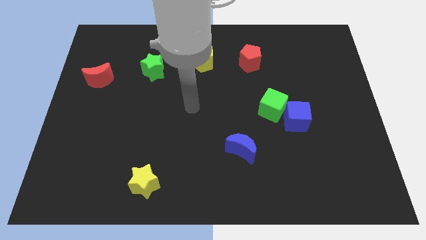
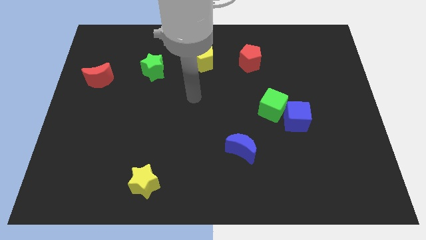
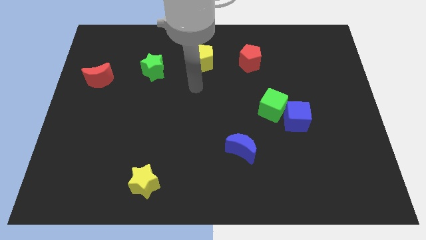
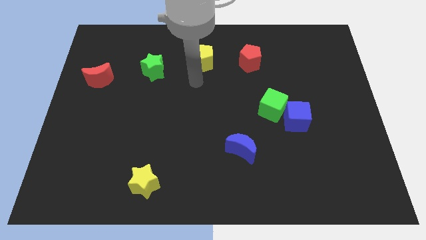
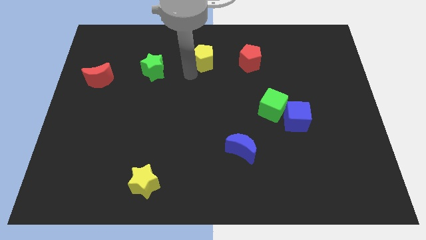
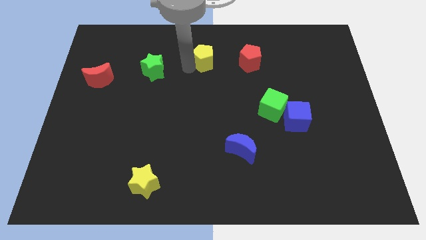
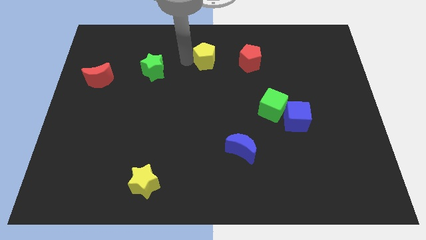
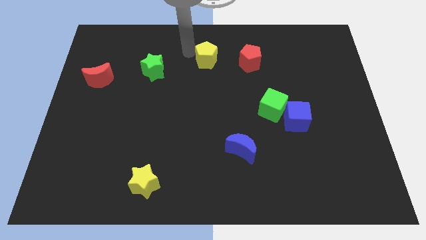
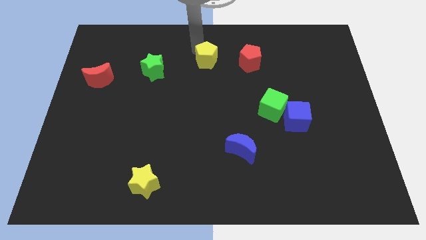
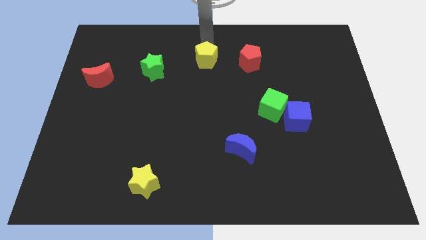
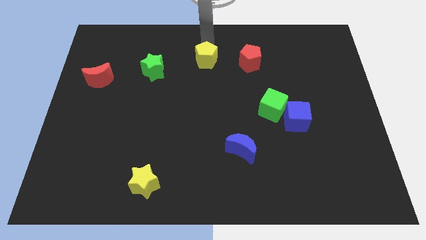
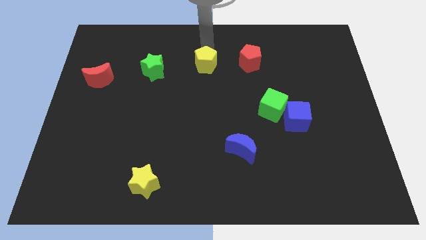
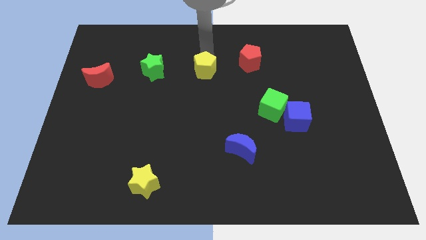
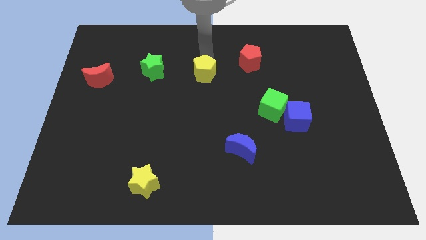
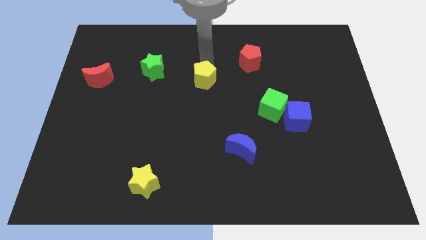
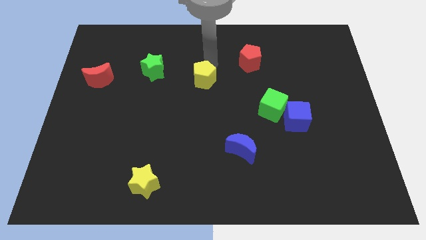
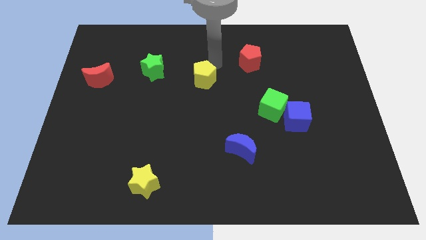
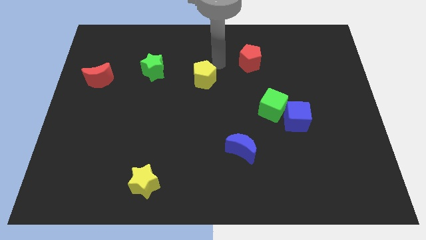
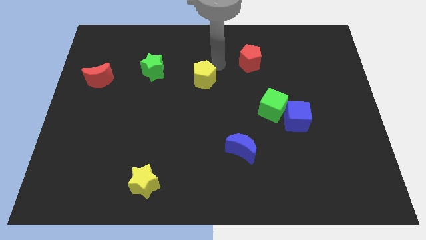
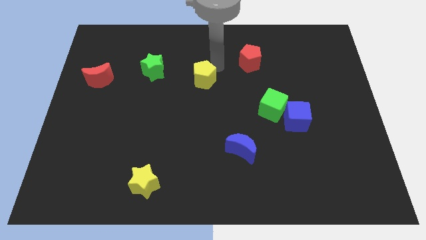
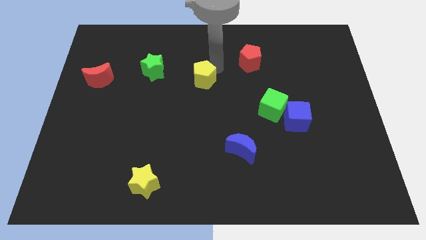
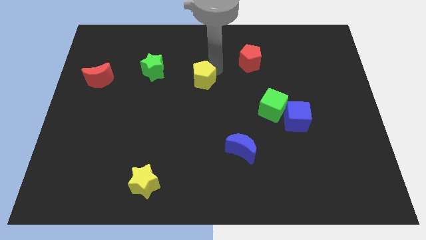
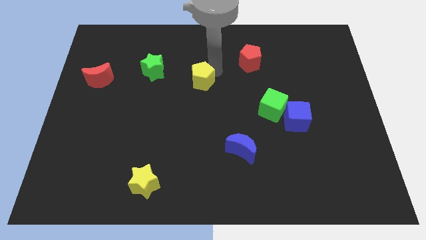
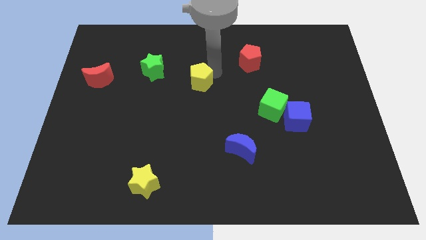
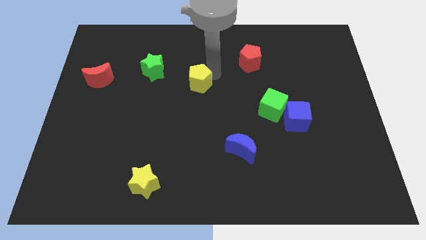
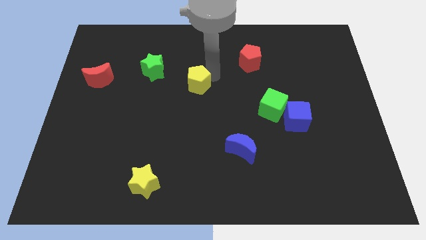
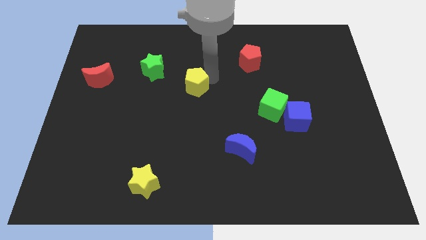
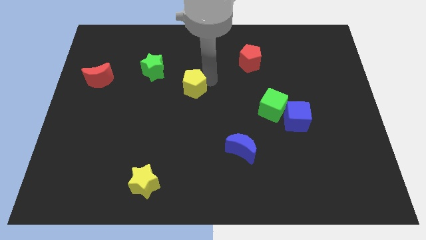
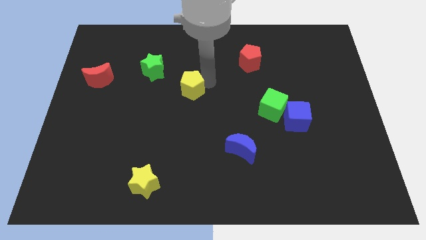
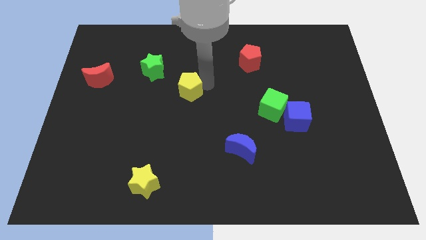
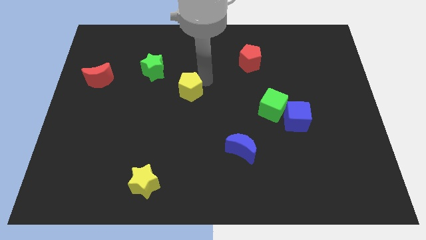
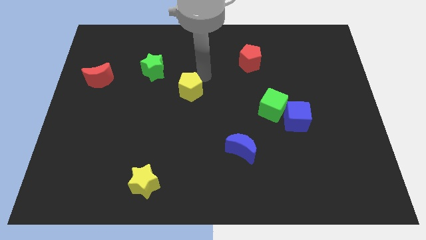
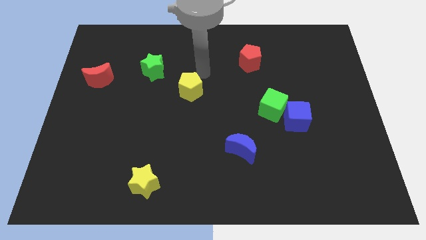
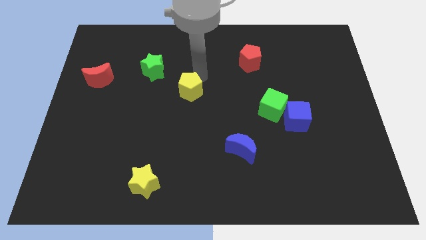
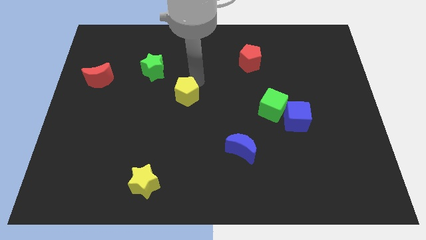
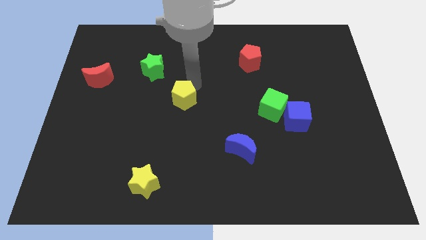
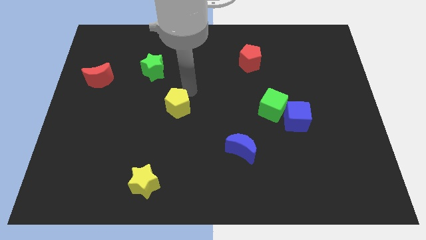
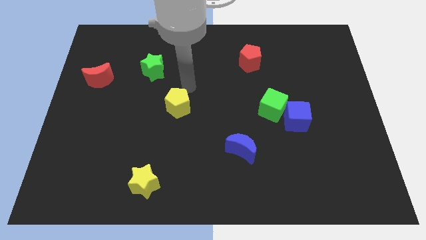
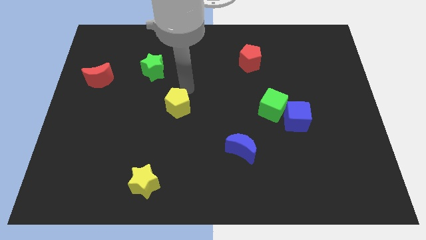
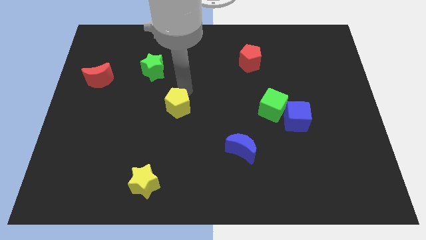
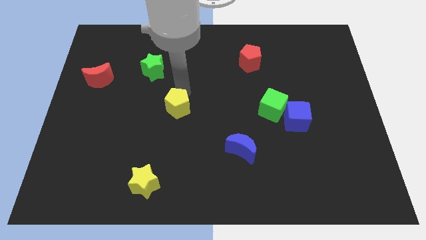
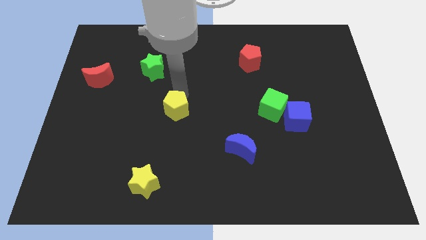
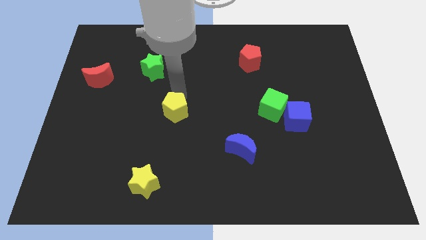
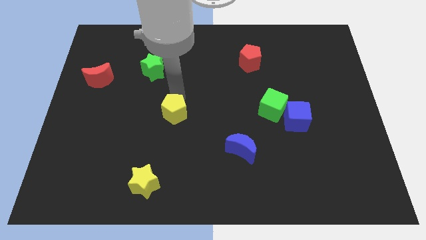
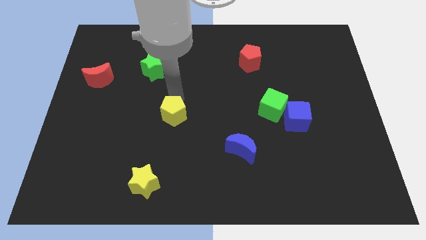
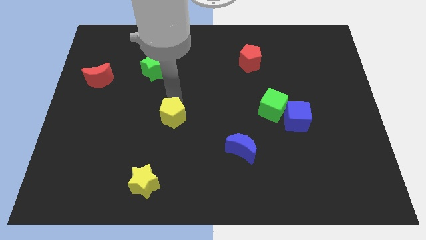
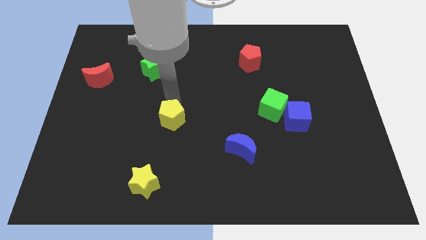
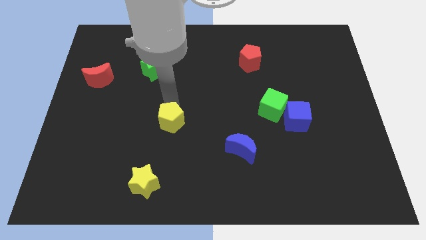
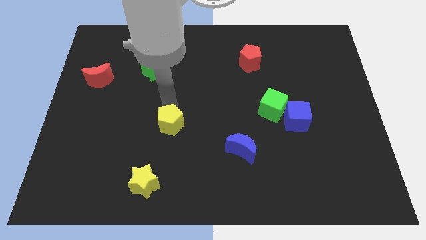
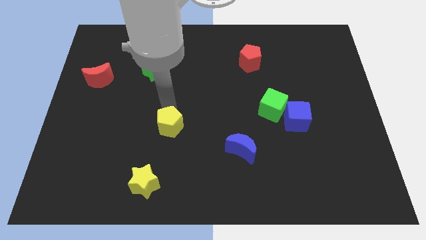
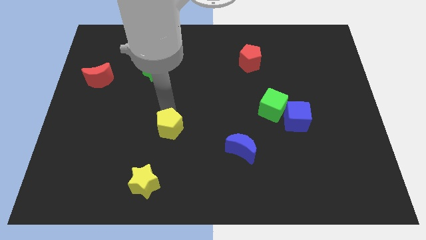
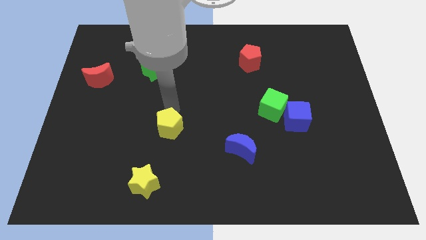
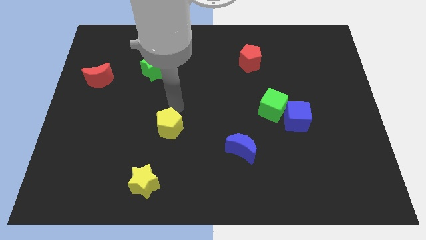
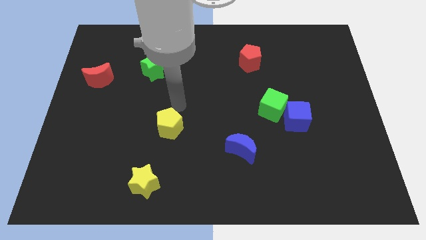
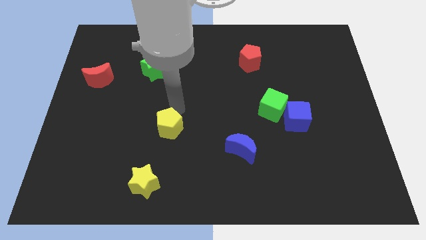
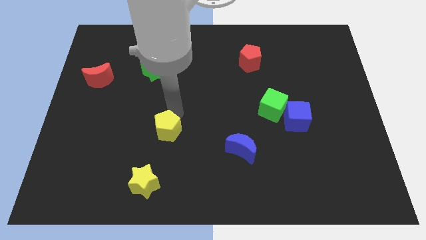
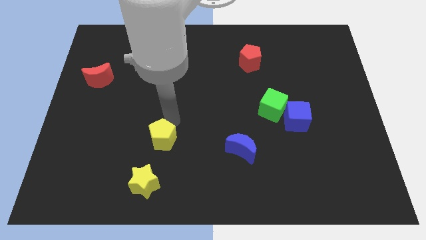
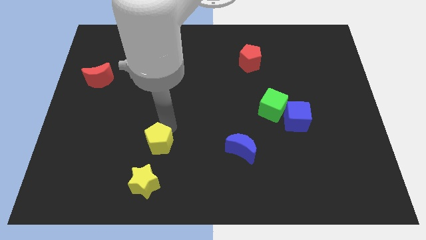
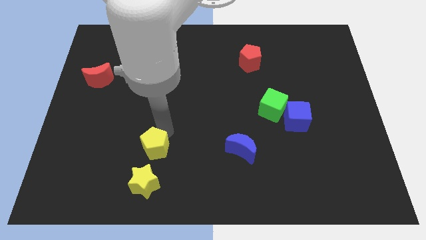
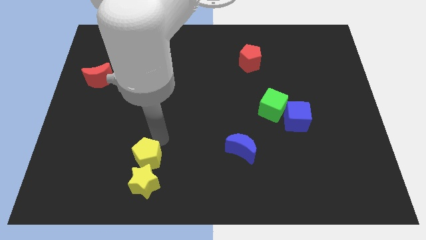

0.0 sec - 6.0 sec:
move the yellow pentagon next to the yellow star

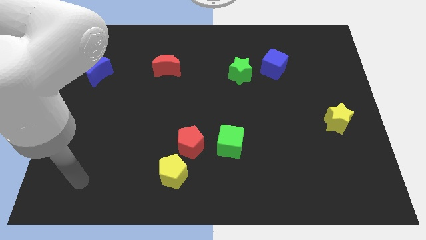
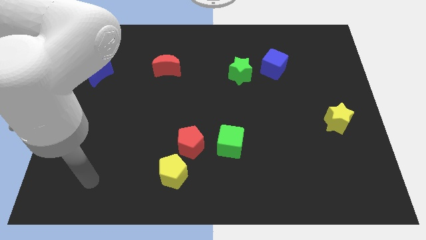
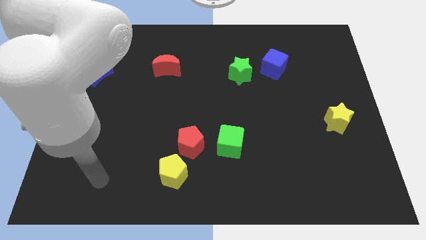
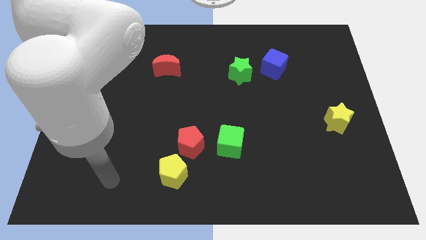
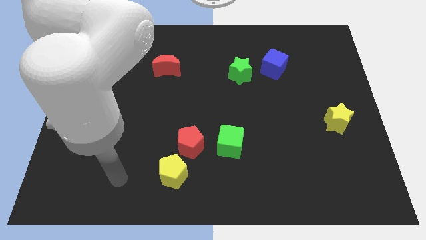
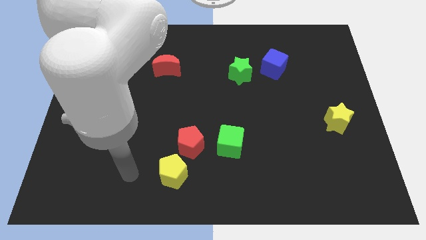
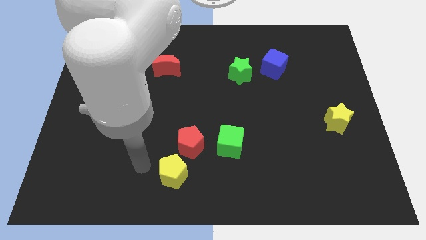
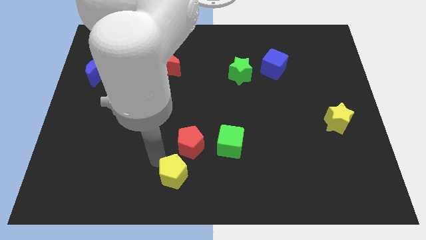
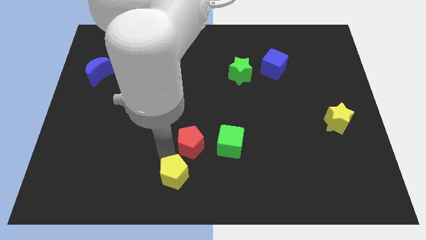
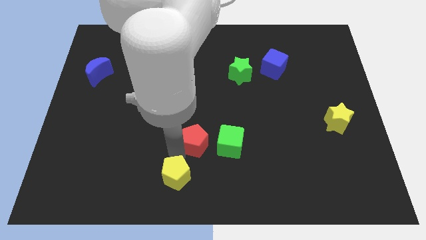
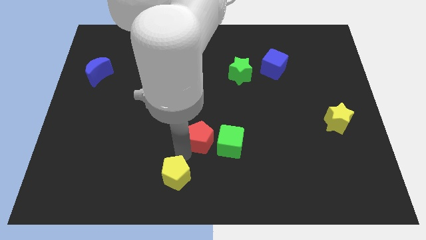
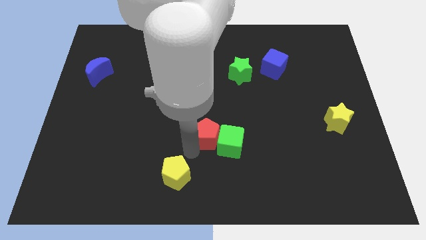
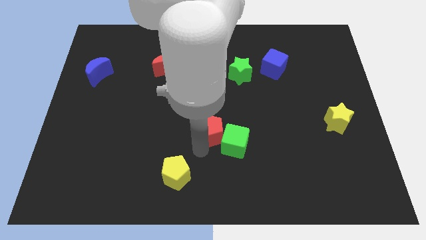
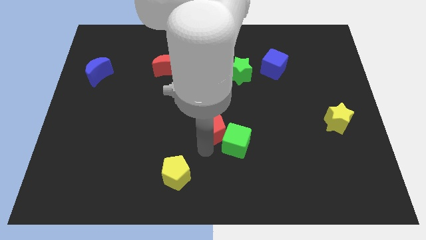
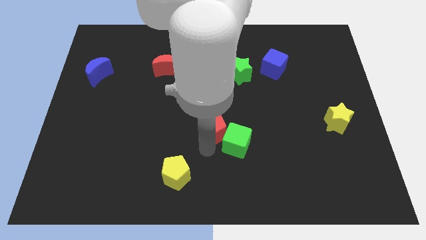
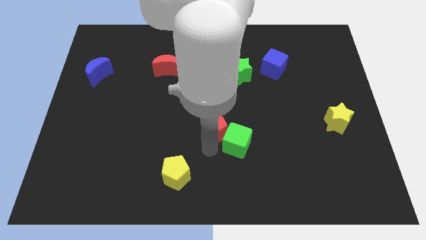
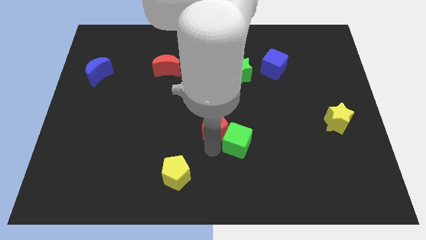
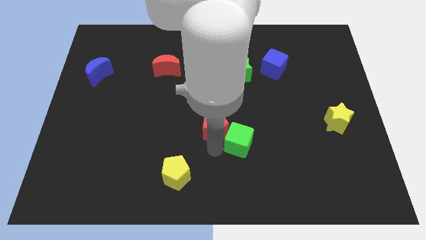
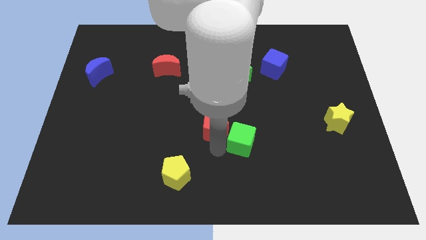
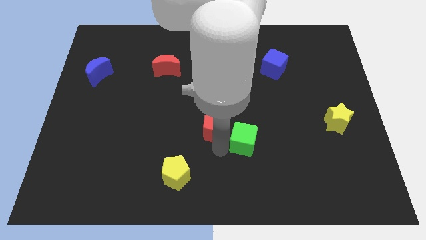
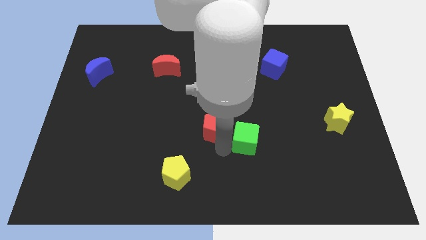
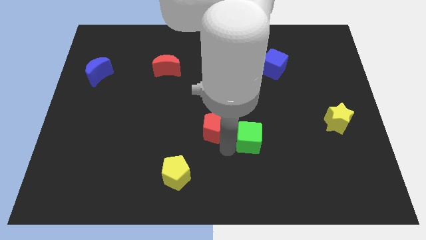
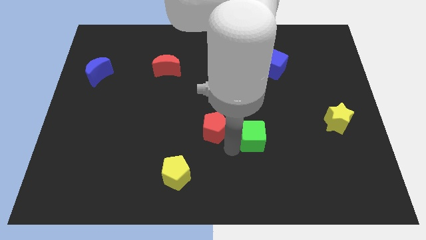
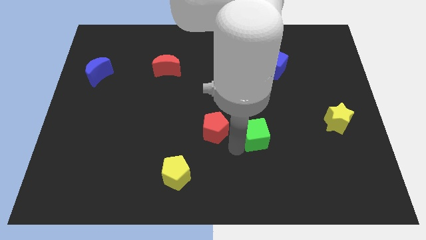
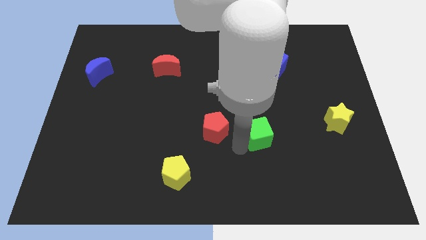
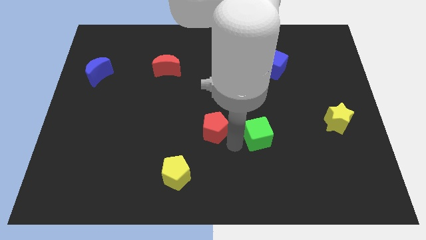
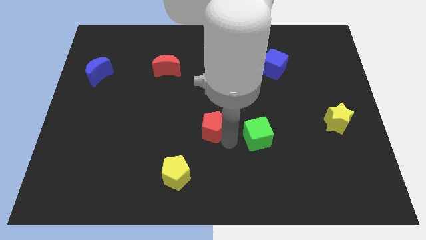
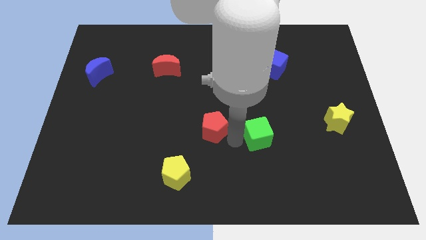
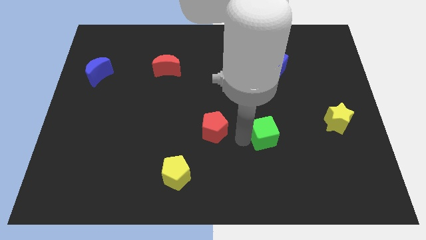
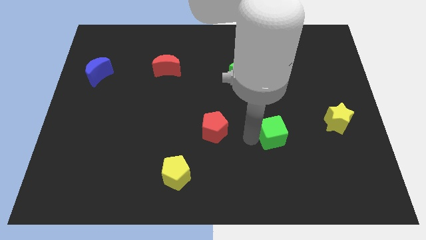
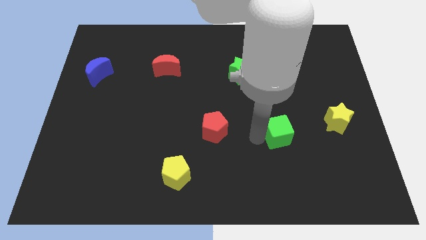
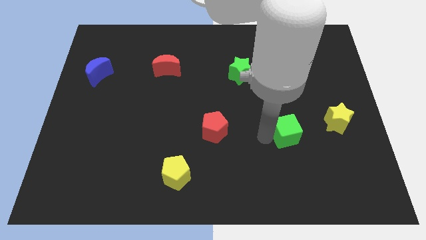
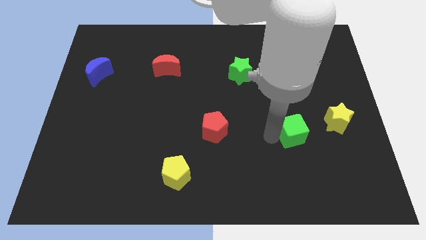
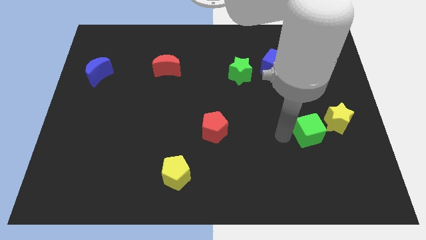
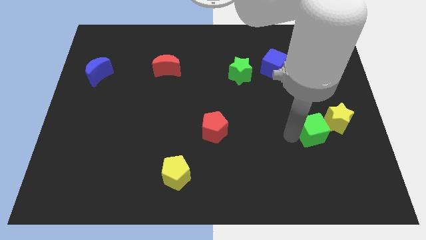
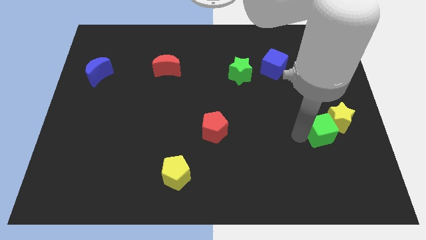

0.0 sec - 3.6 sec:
put the green cube to the yellow star
